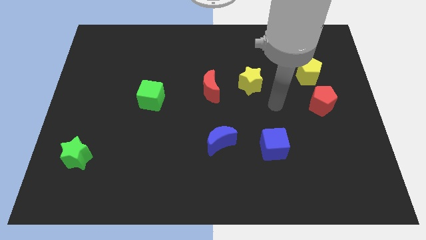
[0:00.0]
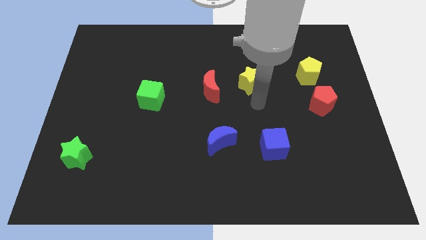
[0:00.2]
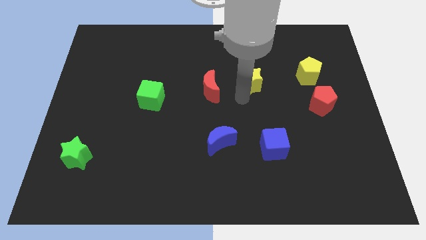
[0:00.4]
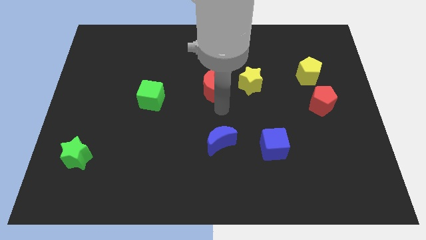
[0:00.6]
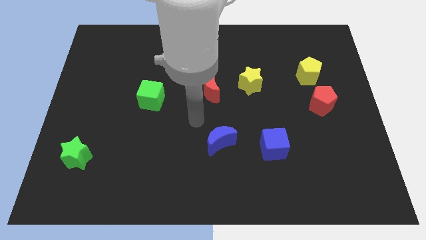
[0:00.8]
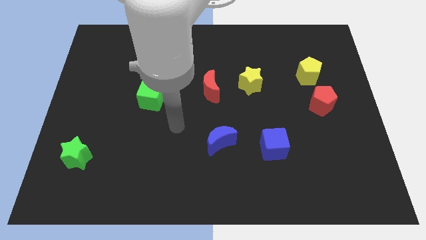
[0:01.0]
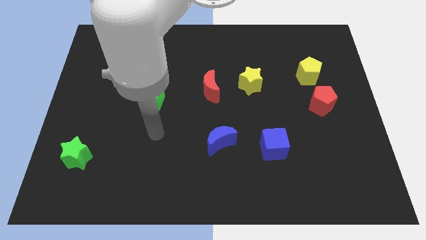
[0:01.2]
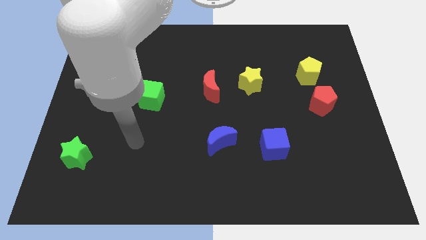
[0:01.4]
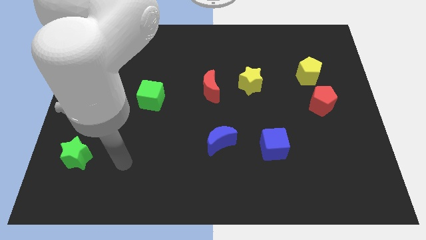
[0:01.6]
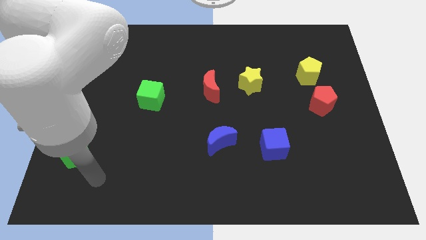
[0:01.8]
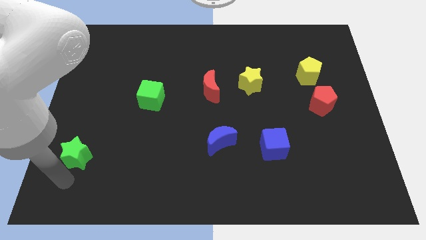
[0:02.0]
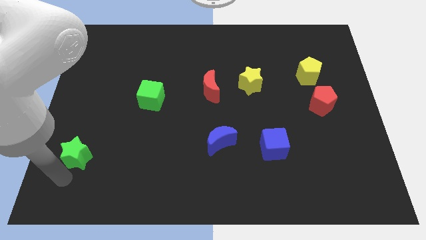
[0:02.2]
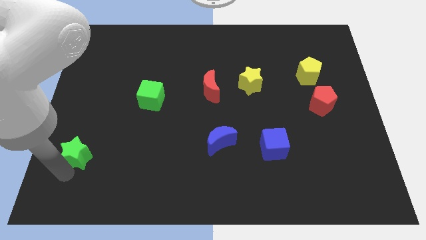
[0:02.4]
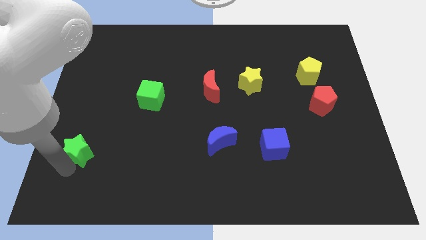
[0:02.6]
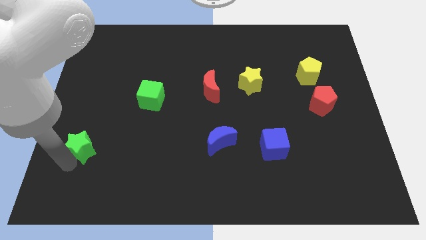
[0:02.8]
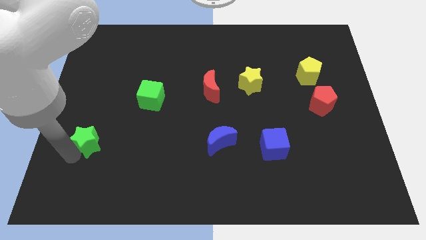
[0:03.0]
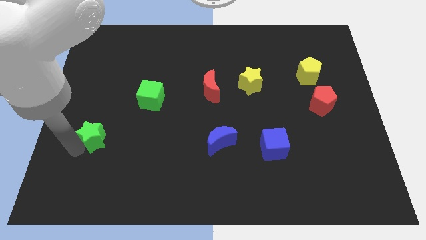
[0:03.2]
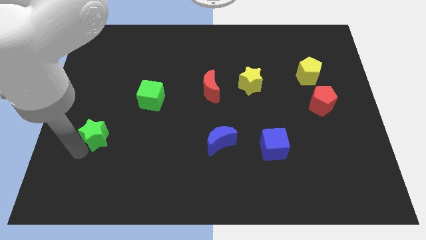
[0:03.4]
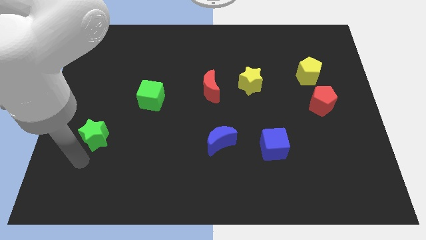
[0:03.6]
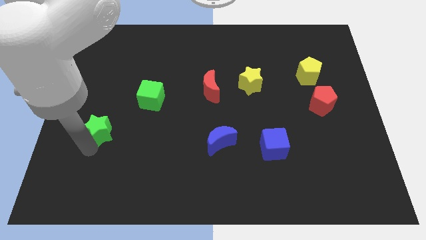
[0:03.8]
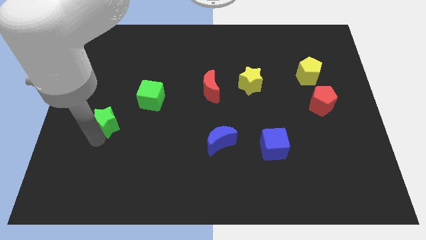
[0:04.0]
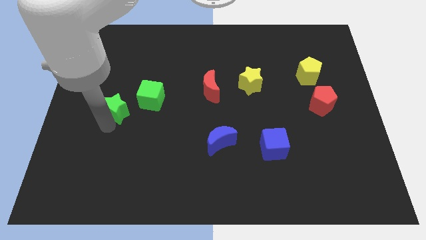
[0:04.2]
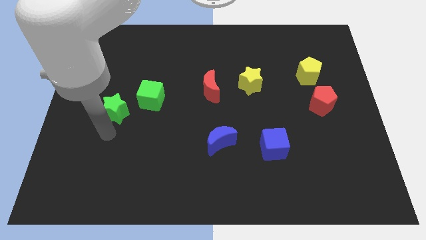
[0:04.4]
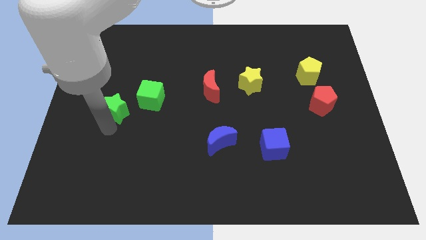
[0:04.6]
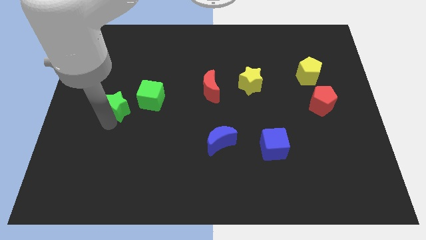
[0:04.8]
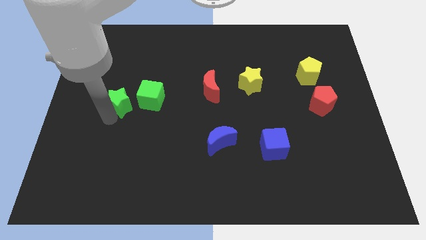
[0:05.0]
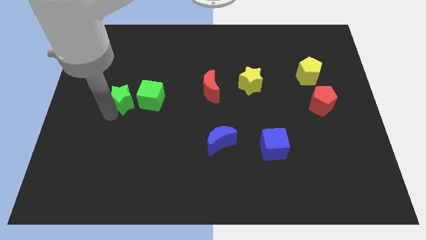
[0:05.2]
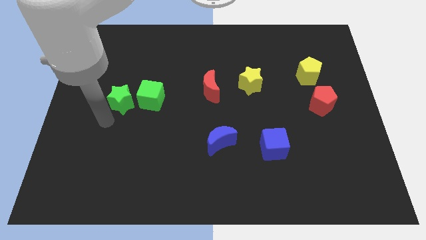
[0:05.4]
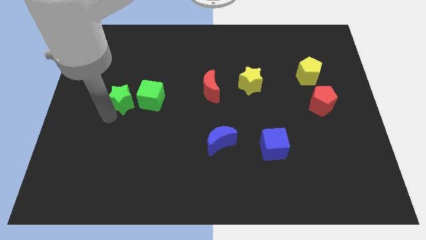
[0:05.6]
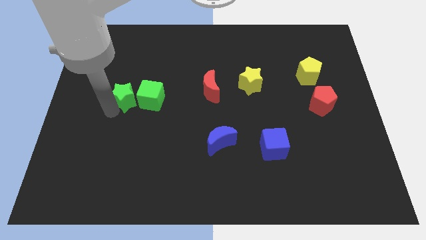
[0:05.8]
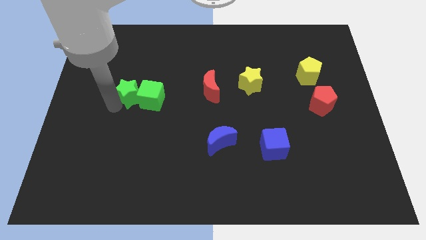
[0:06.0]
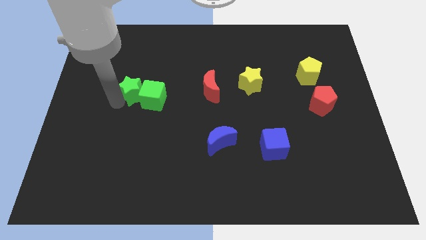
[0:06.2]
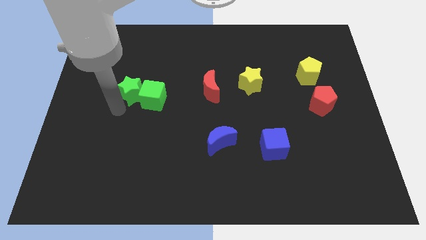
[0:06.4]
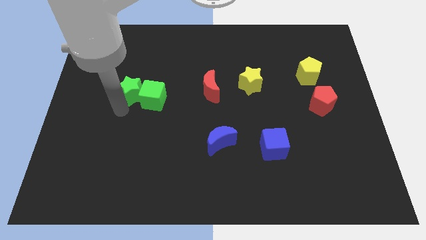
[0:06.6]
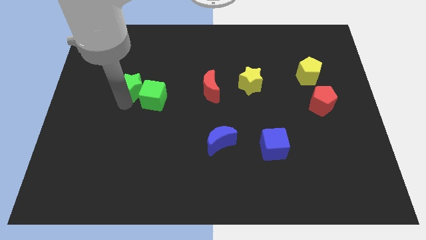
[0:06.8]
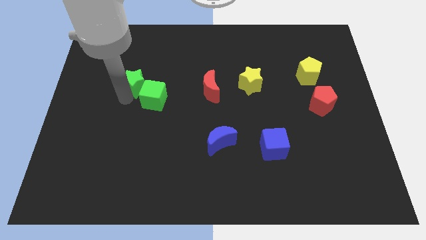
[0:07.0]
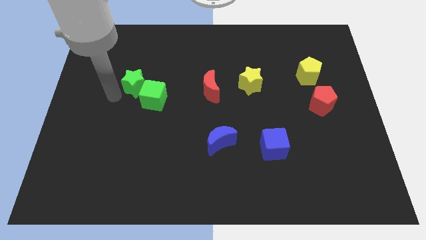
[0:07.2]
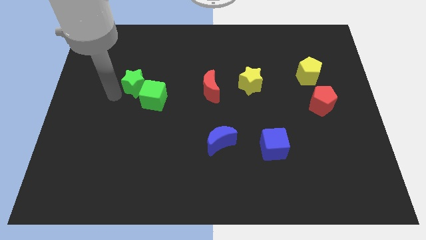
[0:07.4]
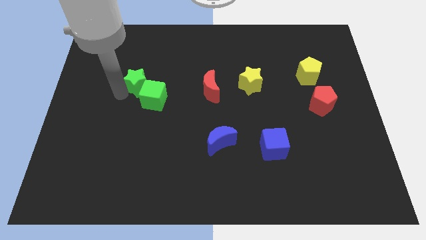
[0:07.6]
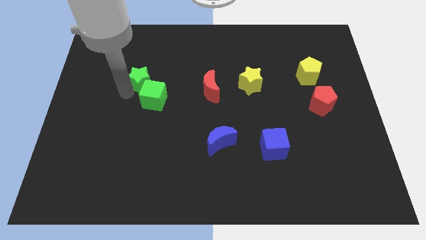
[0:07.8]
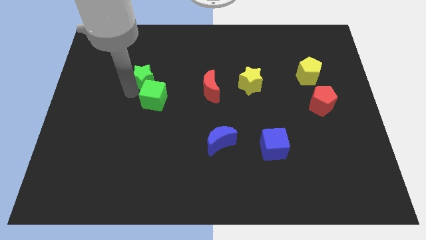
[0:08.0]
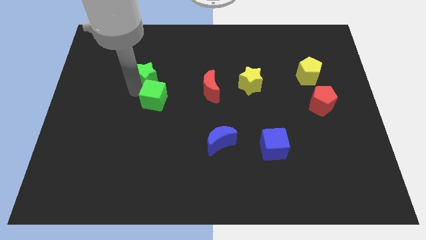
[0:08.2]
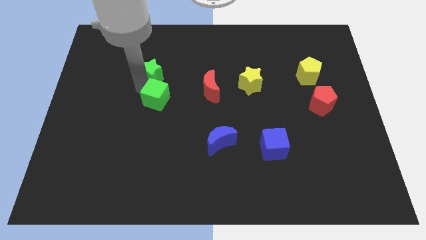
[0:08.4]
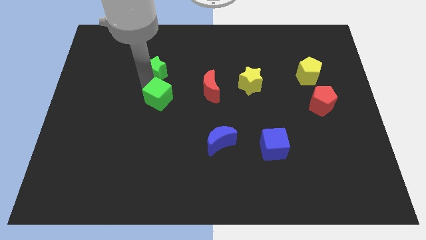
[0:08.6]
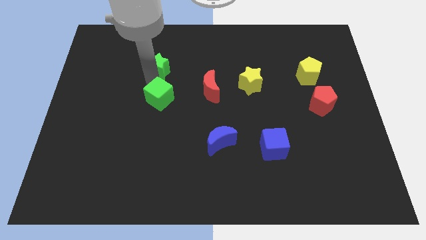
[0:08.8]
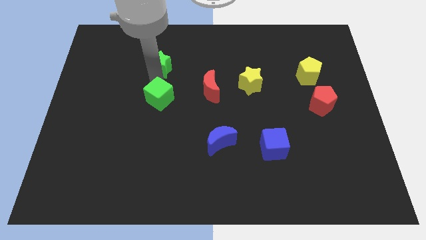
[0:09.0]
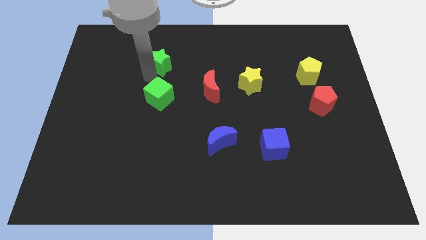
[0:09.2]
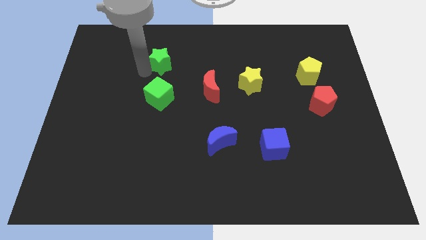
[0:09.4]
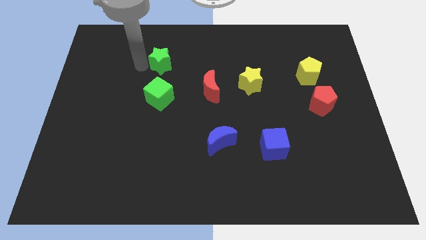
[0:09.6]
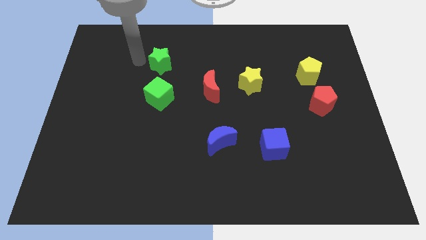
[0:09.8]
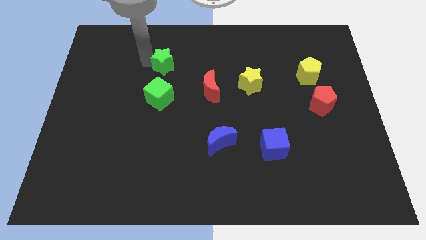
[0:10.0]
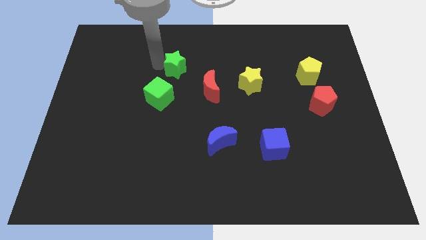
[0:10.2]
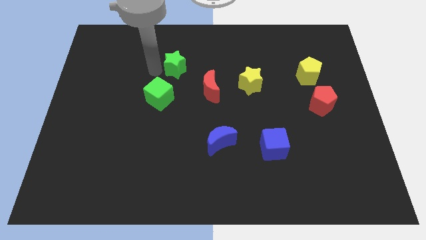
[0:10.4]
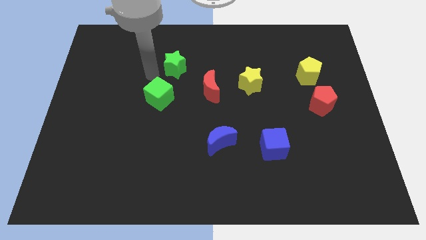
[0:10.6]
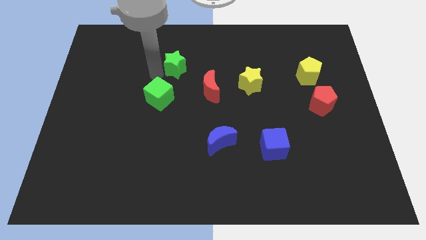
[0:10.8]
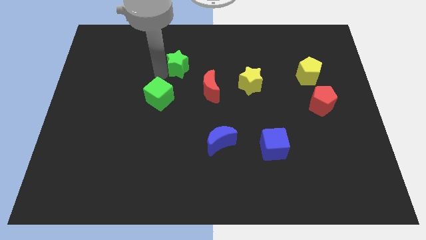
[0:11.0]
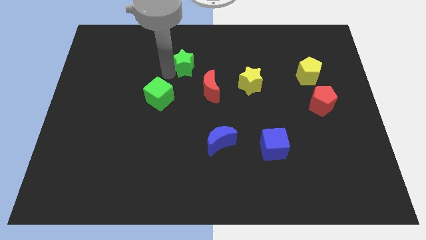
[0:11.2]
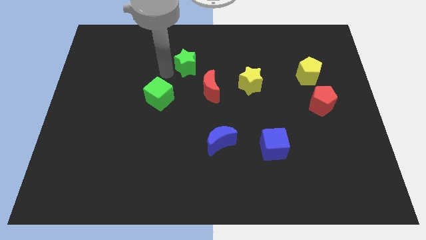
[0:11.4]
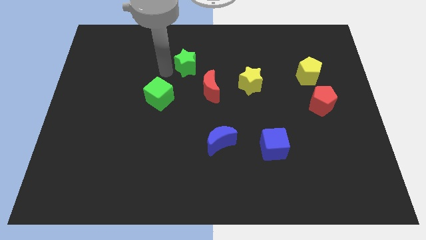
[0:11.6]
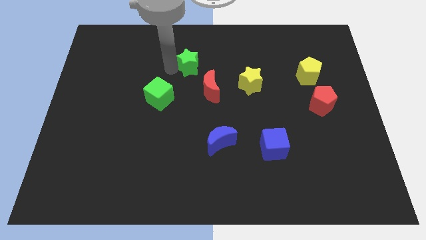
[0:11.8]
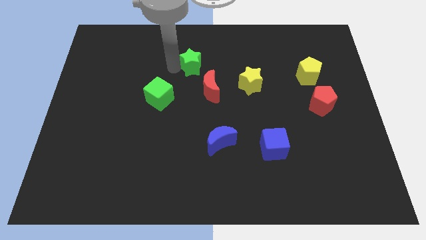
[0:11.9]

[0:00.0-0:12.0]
push the green star to the top side of the red moon

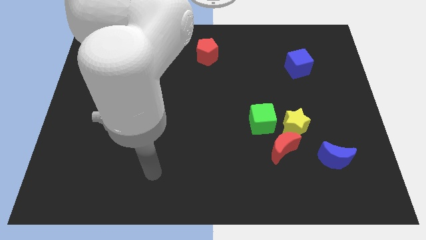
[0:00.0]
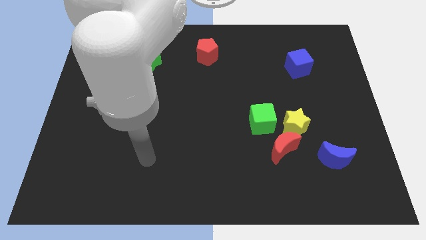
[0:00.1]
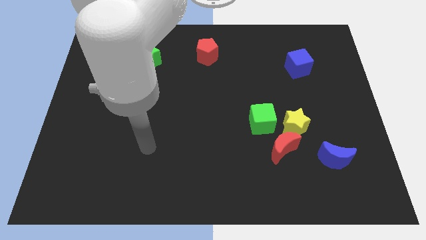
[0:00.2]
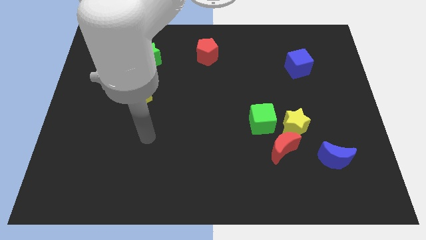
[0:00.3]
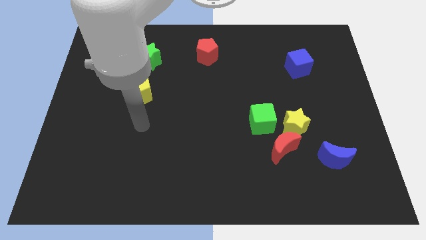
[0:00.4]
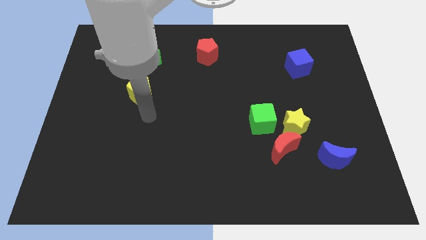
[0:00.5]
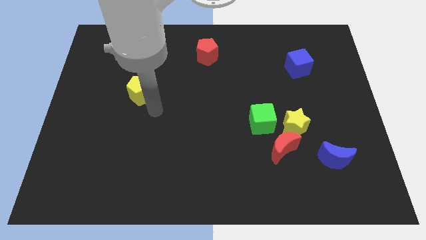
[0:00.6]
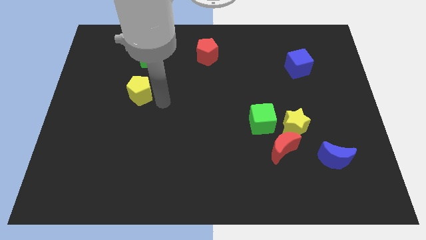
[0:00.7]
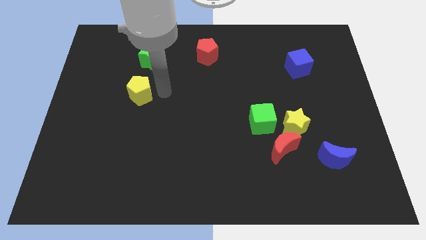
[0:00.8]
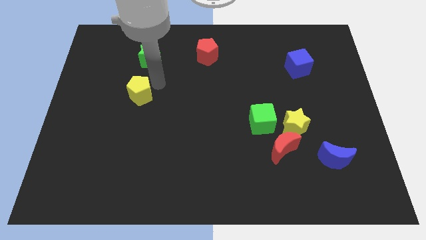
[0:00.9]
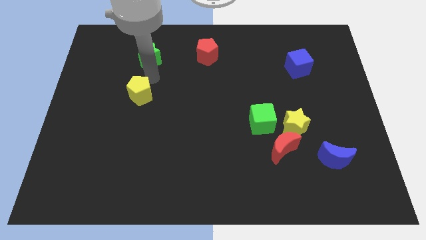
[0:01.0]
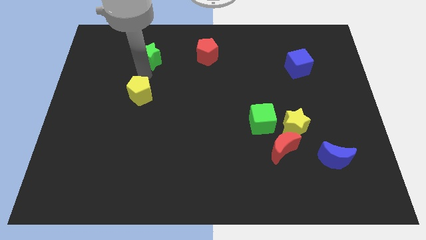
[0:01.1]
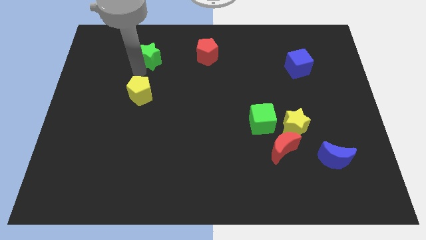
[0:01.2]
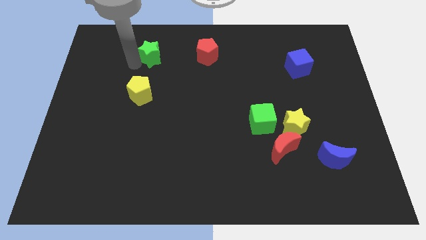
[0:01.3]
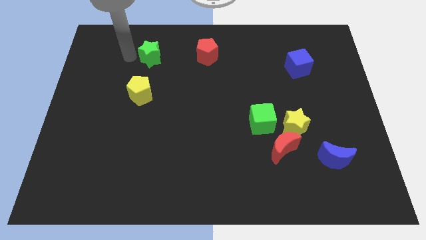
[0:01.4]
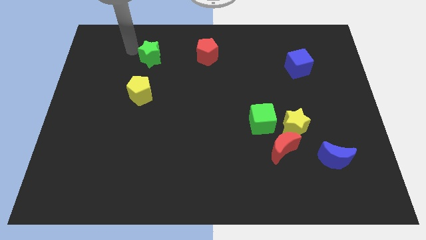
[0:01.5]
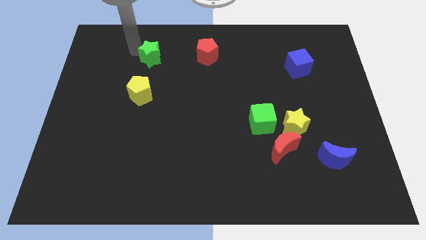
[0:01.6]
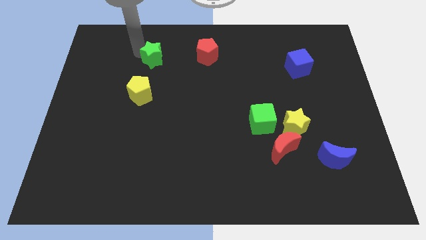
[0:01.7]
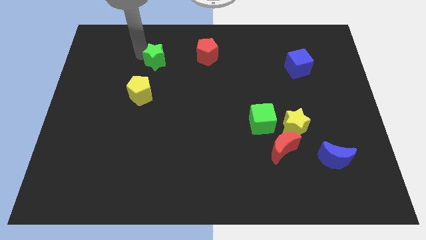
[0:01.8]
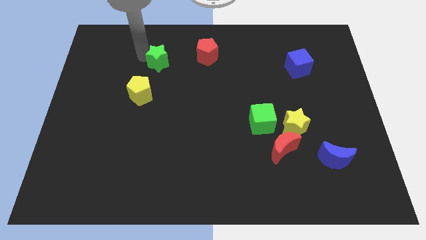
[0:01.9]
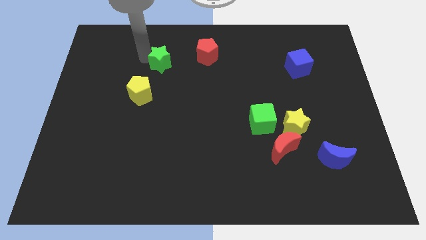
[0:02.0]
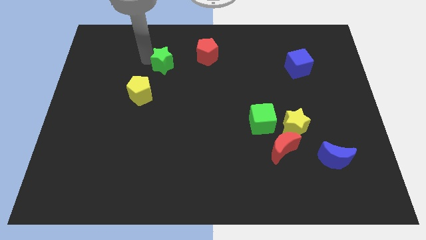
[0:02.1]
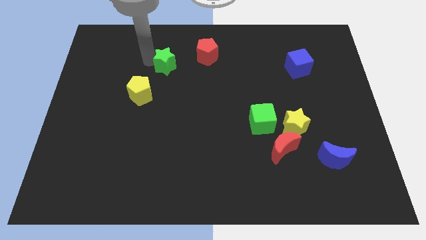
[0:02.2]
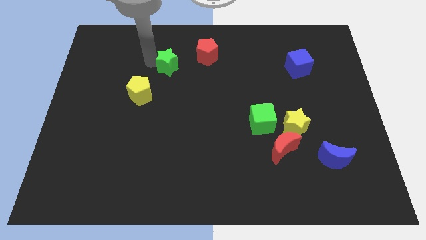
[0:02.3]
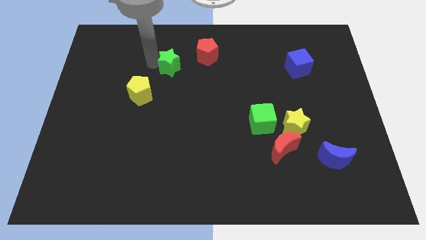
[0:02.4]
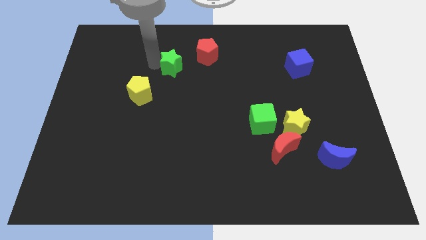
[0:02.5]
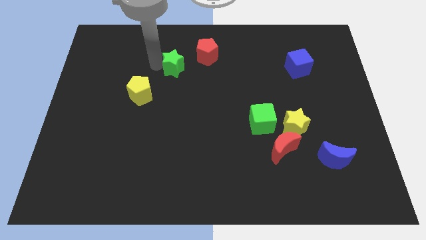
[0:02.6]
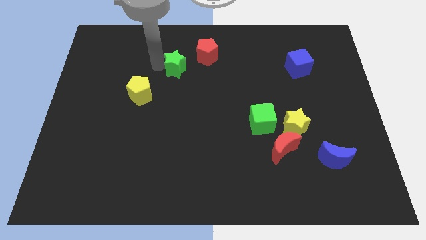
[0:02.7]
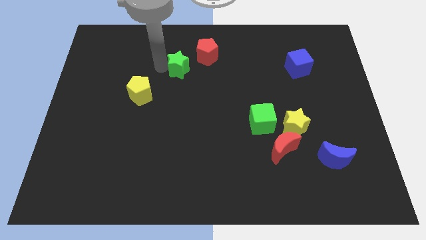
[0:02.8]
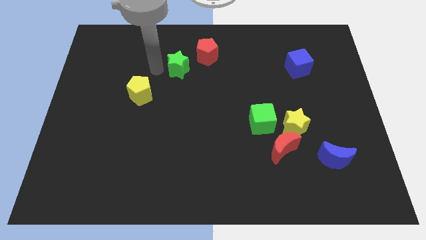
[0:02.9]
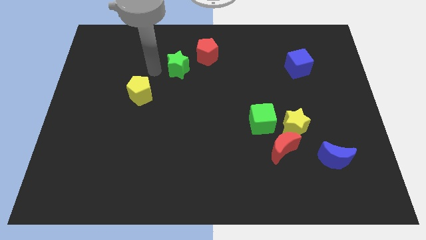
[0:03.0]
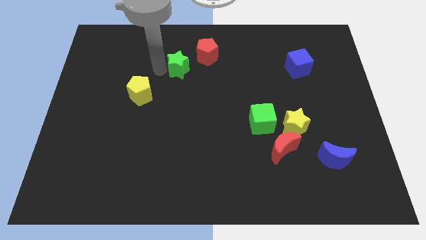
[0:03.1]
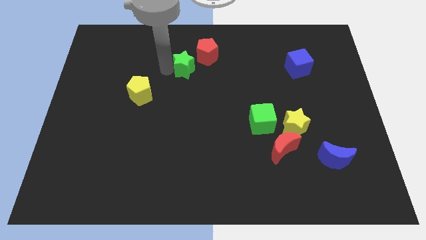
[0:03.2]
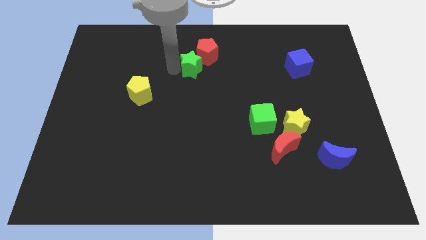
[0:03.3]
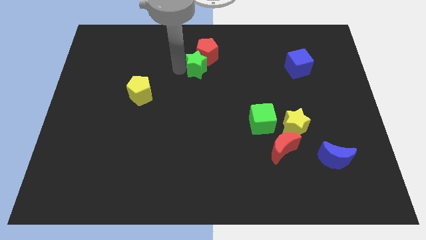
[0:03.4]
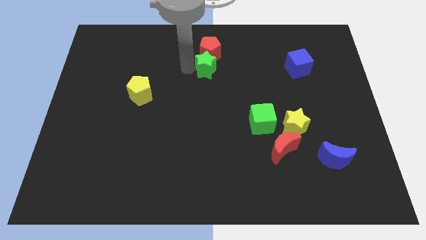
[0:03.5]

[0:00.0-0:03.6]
slide the green star to the bottom right of the red pentagon
